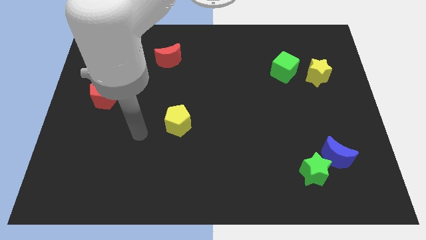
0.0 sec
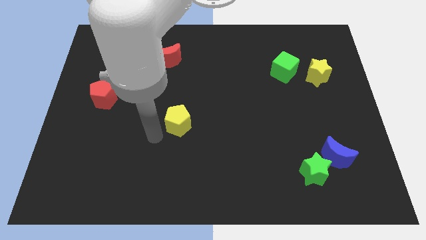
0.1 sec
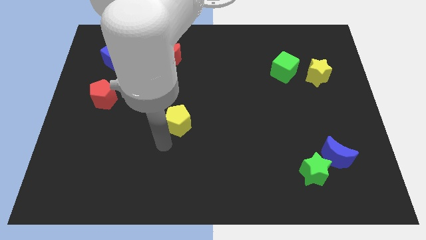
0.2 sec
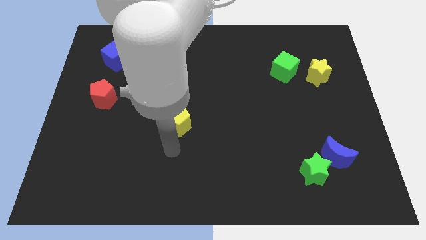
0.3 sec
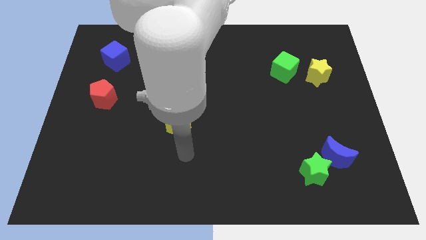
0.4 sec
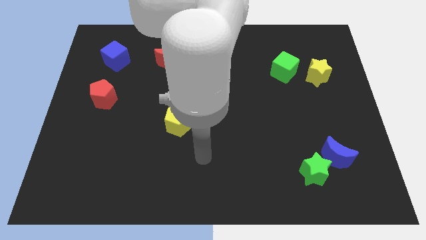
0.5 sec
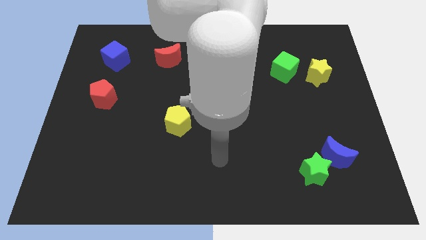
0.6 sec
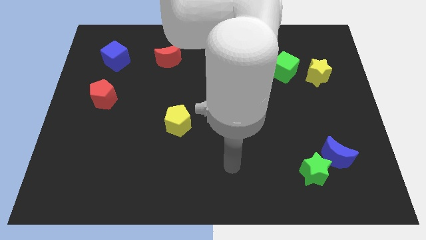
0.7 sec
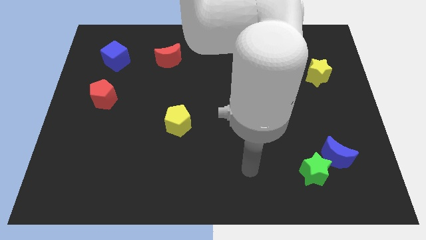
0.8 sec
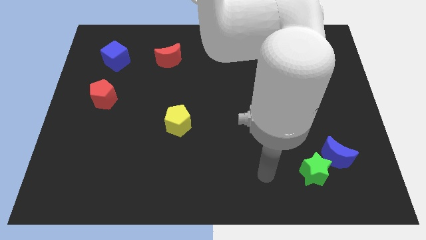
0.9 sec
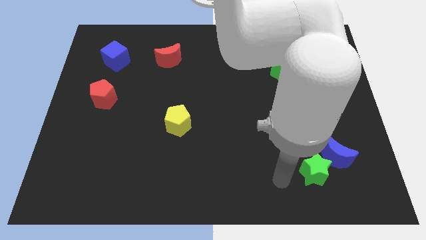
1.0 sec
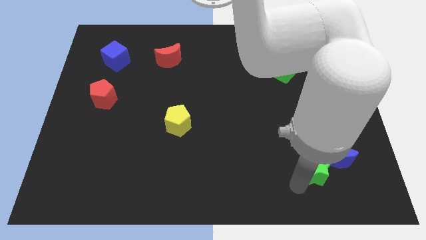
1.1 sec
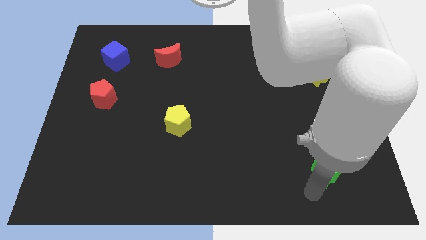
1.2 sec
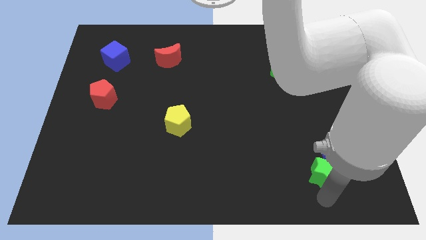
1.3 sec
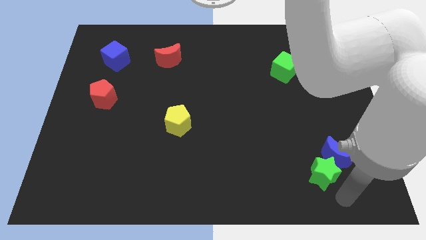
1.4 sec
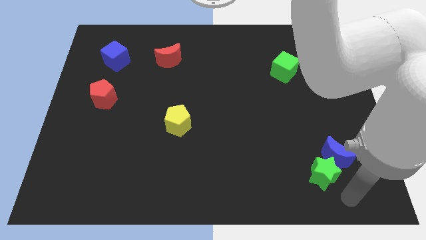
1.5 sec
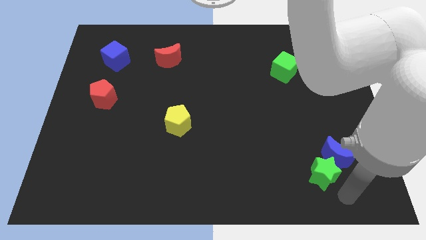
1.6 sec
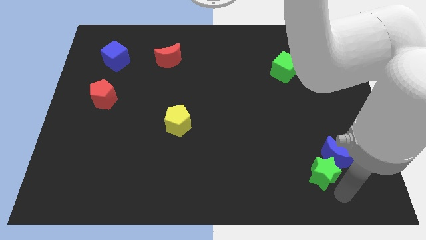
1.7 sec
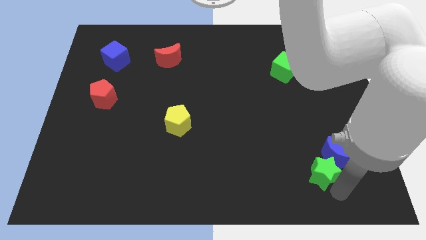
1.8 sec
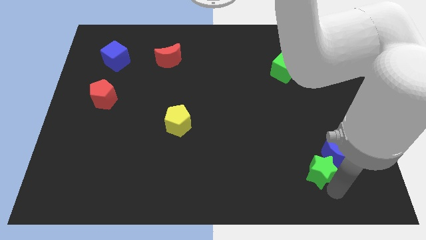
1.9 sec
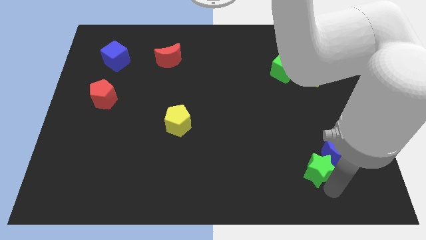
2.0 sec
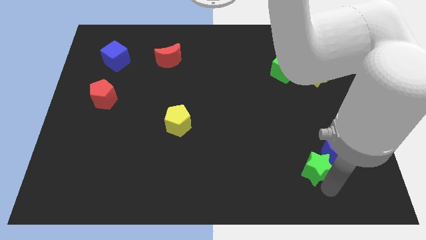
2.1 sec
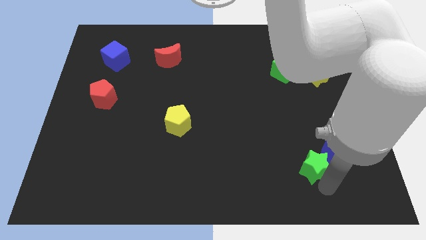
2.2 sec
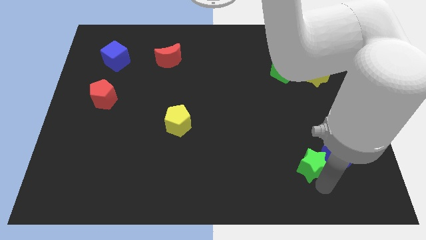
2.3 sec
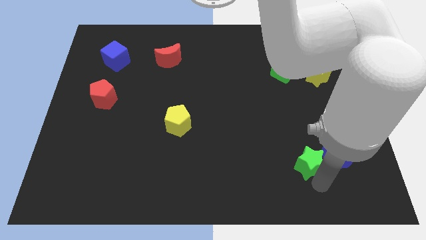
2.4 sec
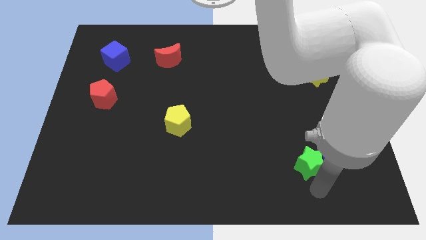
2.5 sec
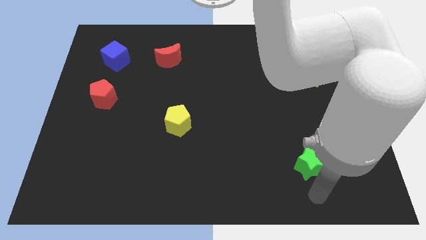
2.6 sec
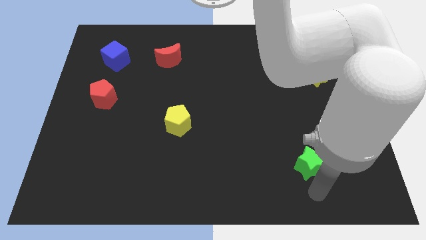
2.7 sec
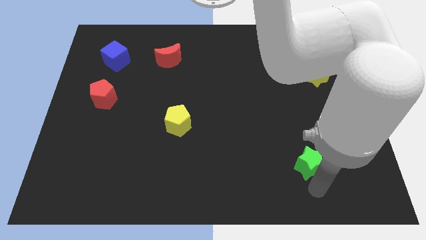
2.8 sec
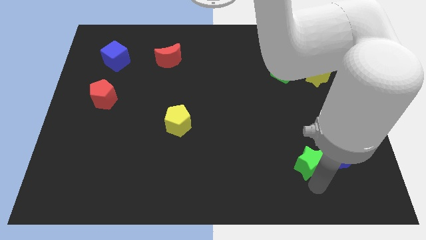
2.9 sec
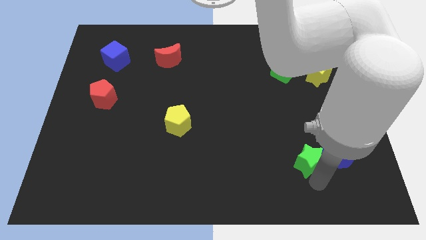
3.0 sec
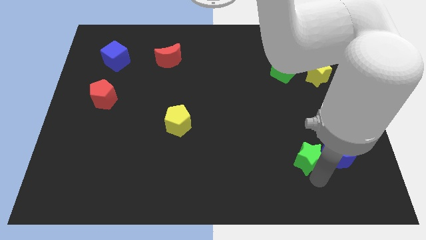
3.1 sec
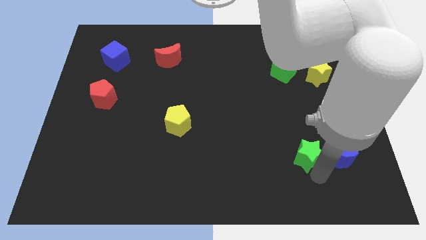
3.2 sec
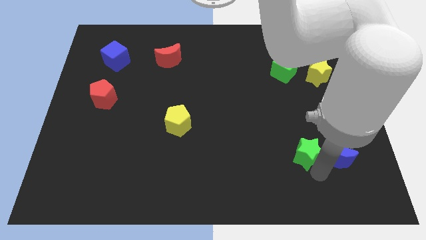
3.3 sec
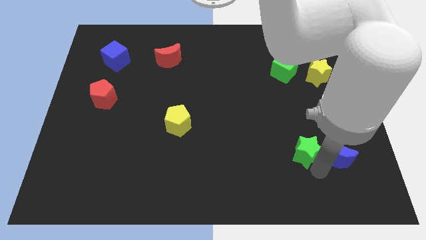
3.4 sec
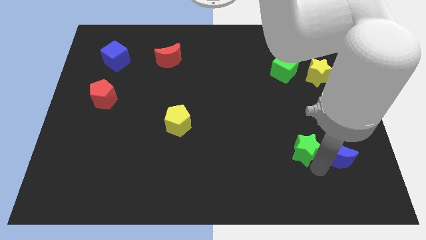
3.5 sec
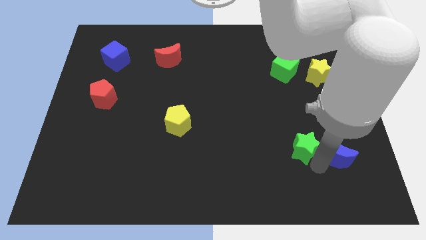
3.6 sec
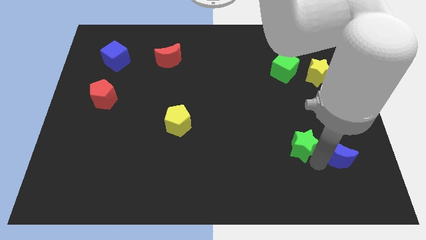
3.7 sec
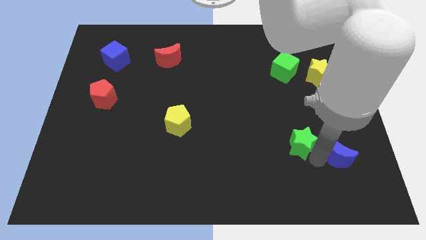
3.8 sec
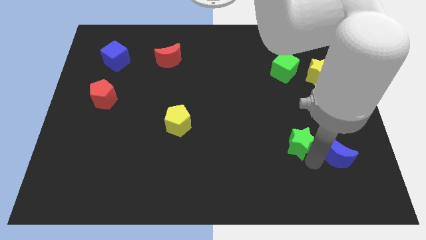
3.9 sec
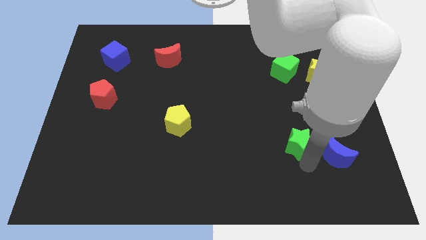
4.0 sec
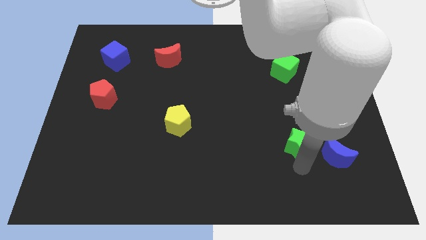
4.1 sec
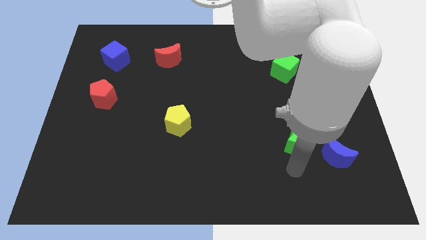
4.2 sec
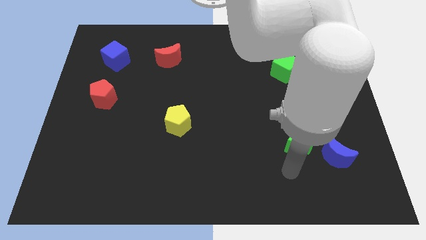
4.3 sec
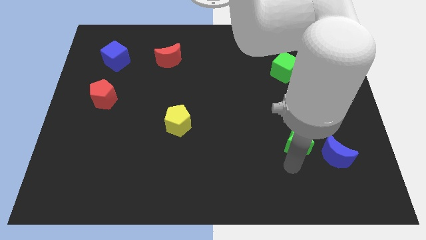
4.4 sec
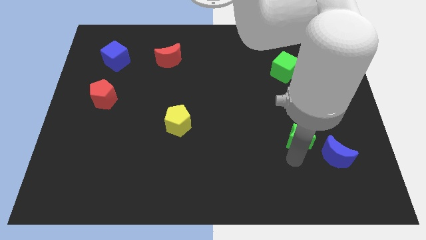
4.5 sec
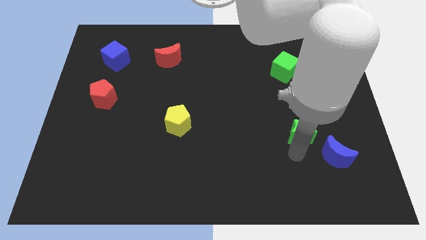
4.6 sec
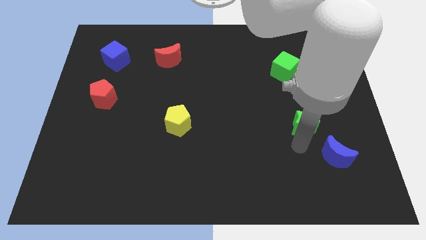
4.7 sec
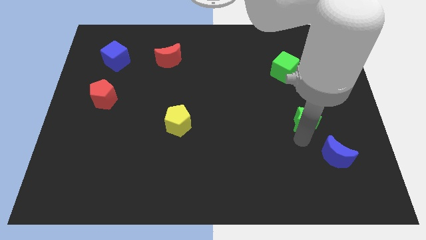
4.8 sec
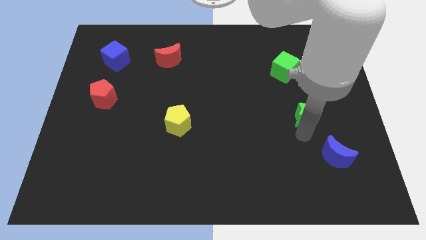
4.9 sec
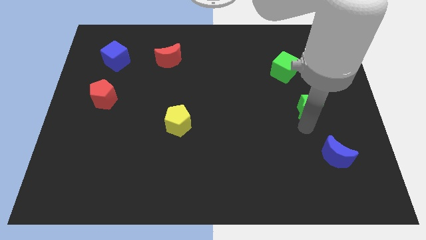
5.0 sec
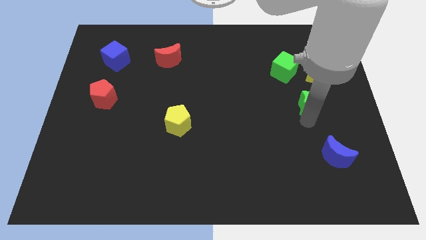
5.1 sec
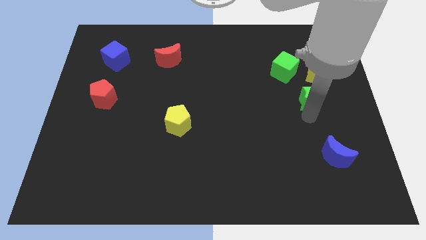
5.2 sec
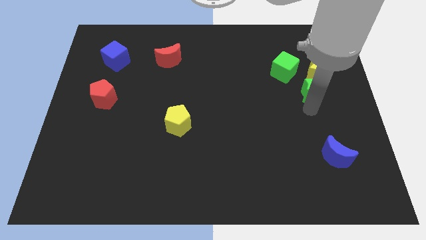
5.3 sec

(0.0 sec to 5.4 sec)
slide the green star close to the yellow star

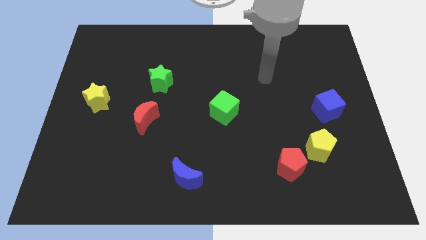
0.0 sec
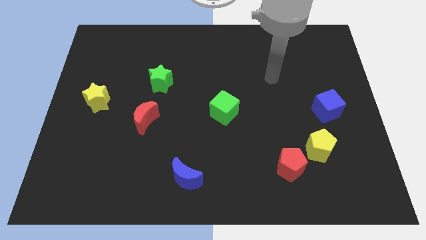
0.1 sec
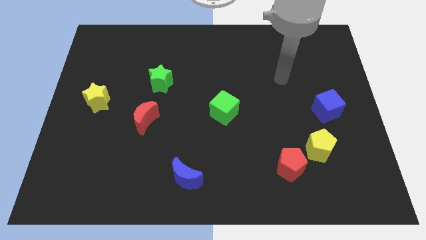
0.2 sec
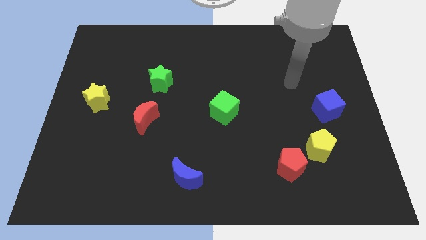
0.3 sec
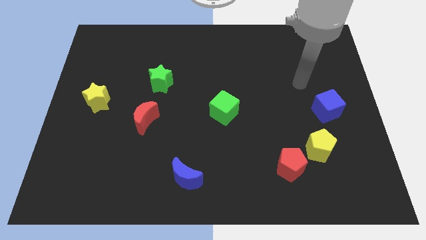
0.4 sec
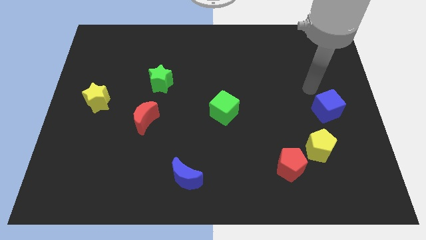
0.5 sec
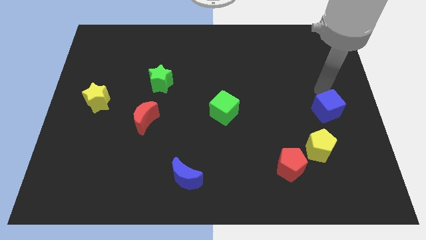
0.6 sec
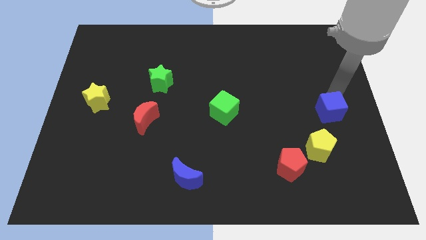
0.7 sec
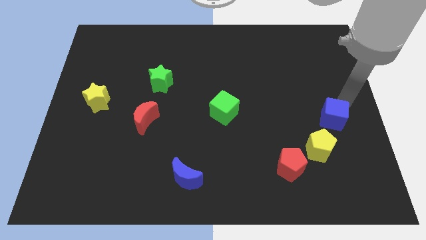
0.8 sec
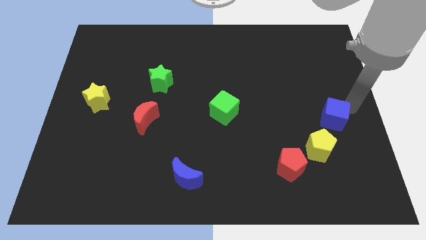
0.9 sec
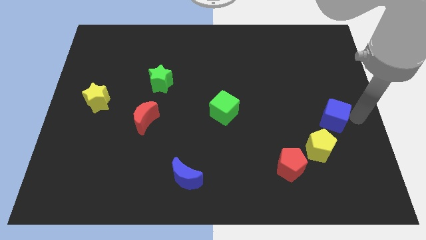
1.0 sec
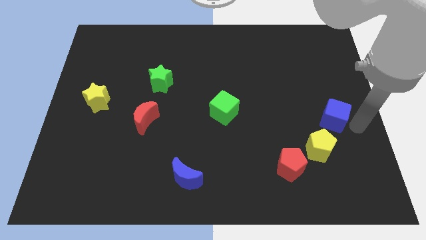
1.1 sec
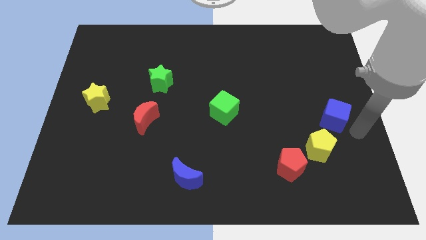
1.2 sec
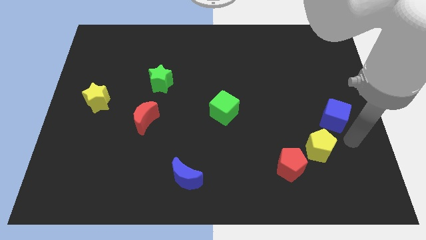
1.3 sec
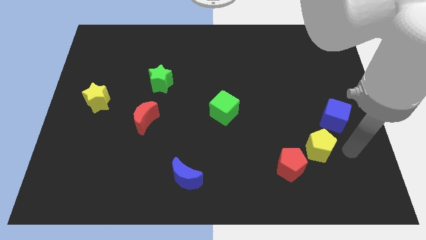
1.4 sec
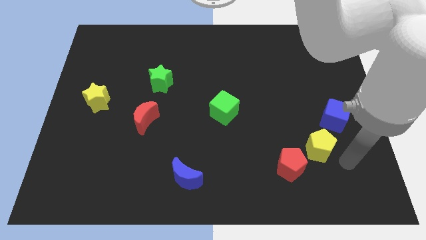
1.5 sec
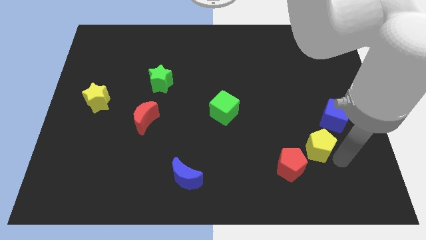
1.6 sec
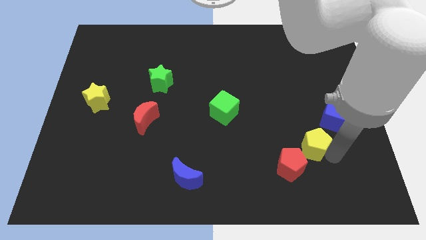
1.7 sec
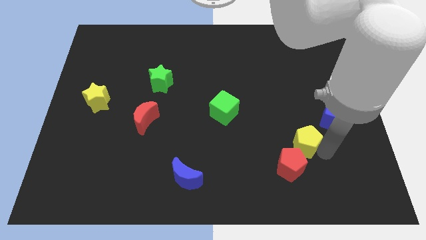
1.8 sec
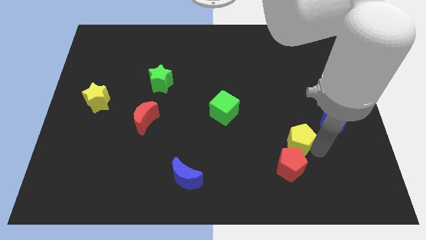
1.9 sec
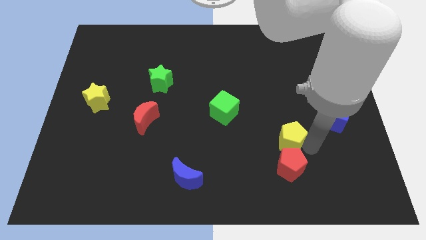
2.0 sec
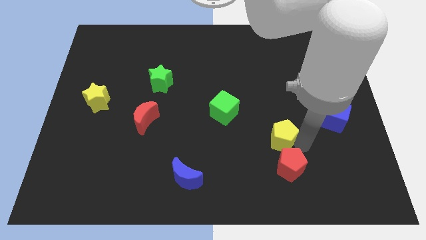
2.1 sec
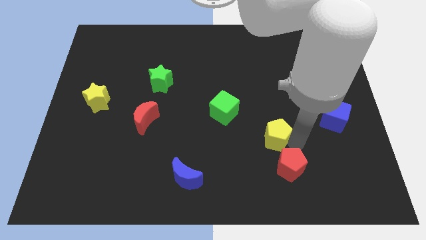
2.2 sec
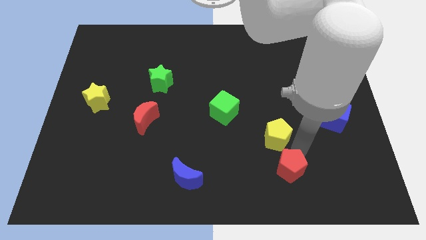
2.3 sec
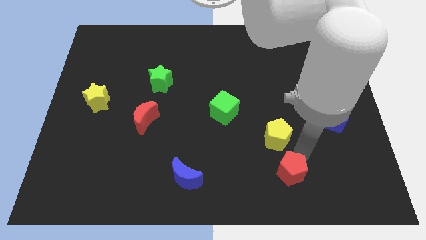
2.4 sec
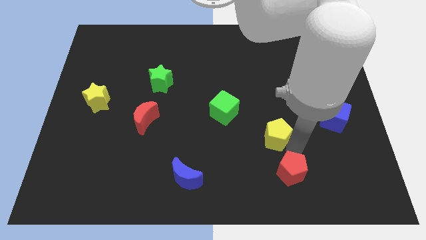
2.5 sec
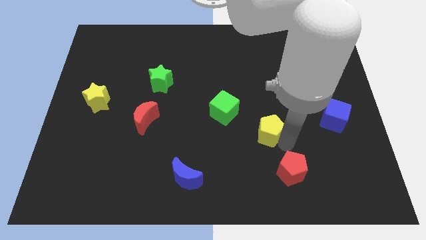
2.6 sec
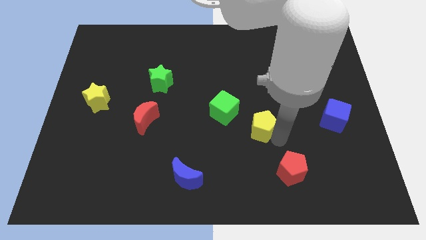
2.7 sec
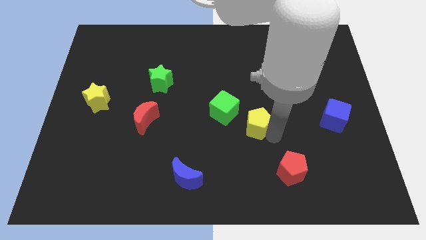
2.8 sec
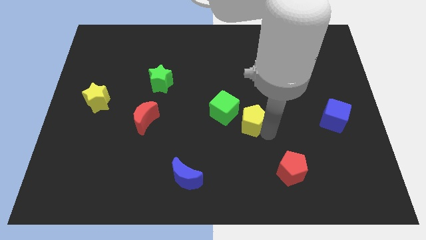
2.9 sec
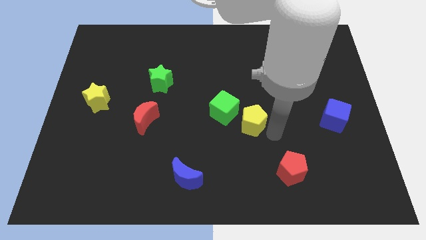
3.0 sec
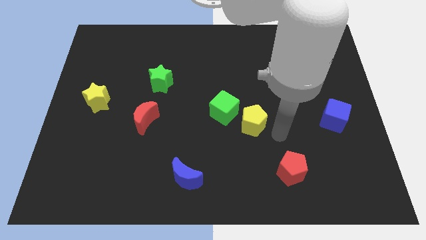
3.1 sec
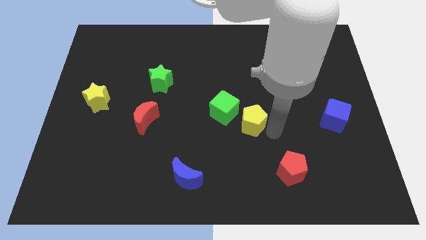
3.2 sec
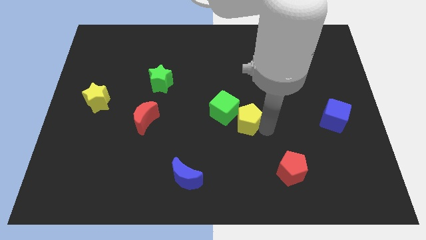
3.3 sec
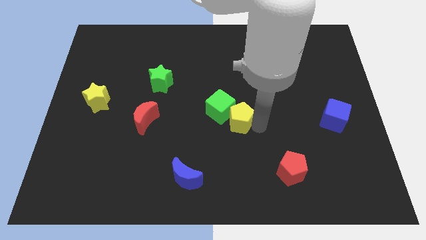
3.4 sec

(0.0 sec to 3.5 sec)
slide the yellow pentagon to the green cube
